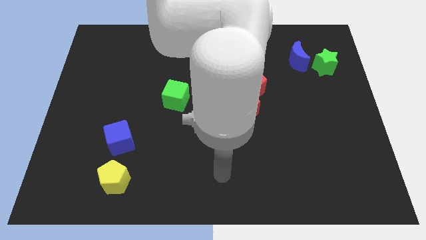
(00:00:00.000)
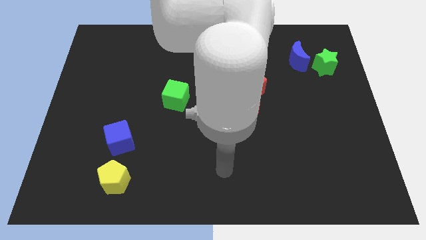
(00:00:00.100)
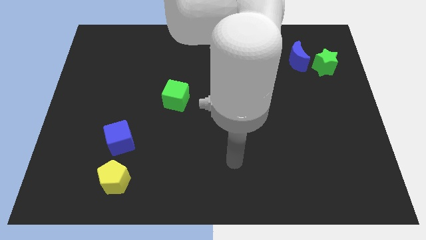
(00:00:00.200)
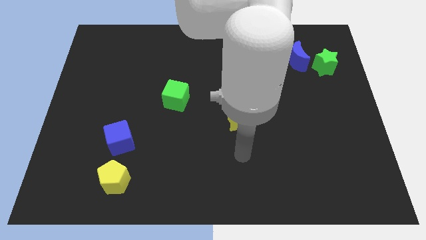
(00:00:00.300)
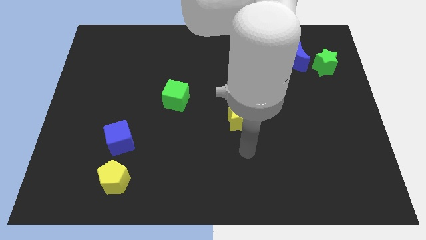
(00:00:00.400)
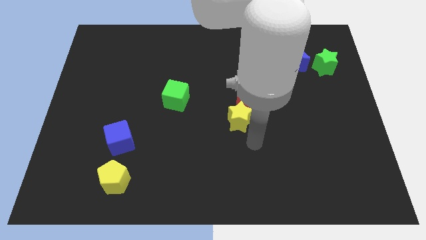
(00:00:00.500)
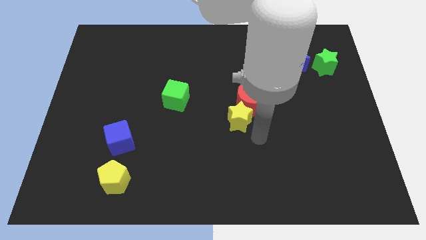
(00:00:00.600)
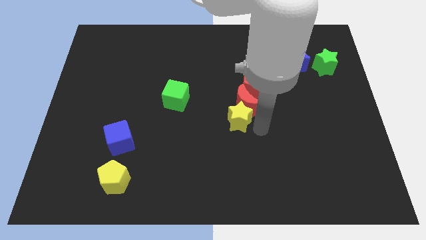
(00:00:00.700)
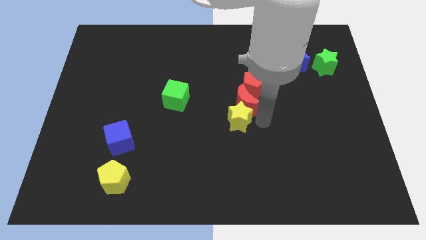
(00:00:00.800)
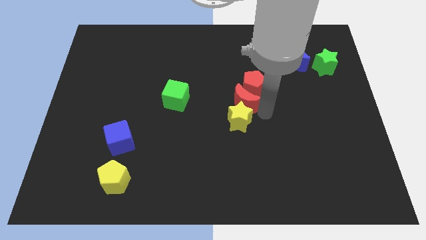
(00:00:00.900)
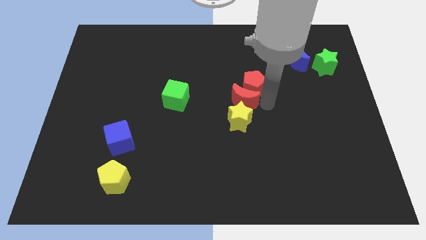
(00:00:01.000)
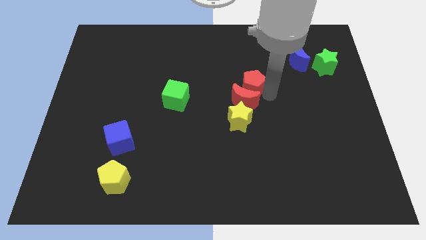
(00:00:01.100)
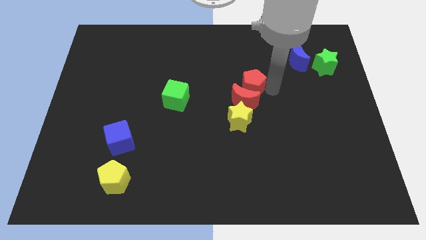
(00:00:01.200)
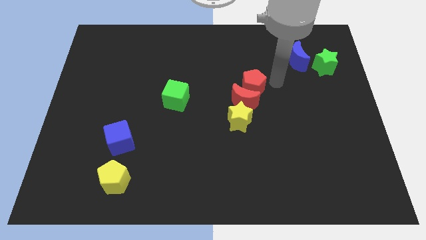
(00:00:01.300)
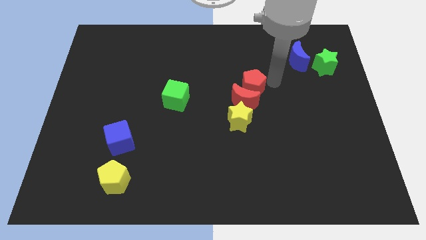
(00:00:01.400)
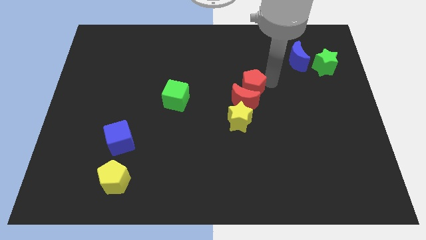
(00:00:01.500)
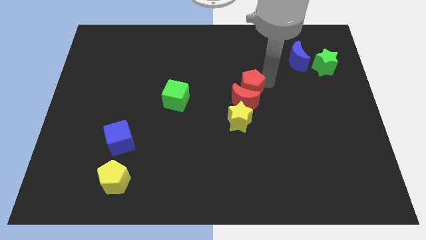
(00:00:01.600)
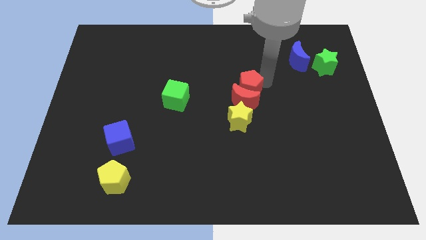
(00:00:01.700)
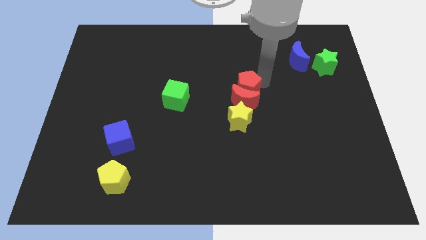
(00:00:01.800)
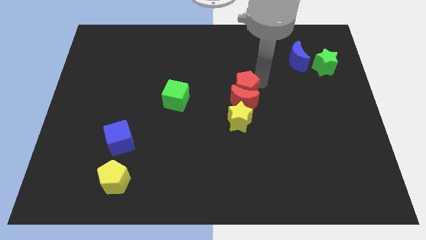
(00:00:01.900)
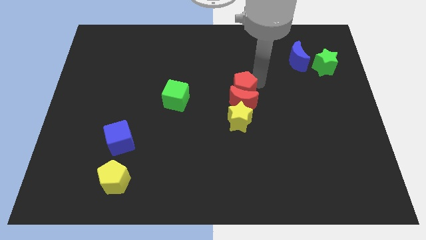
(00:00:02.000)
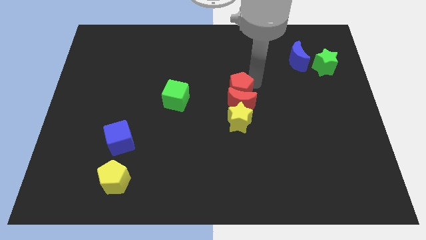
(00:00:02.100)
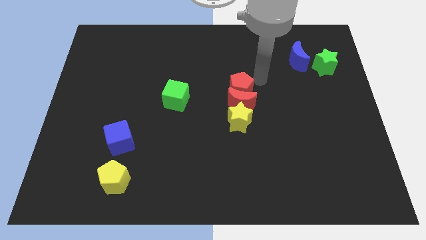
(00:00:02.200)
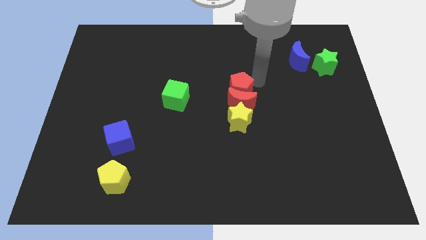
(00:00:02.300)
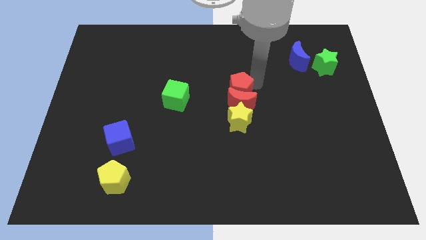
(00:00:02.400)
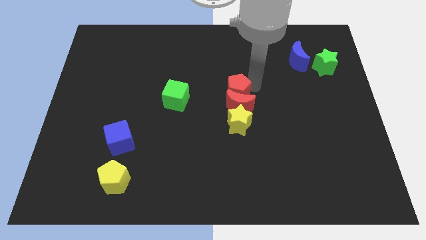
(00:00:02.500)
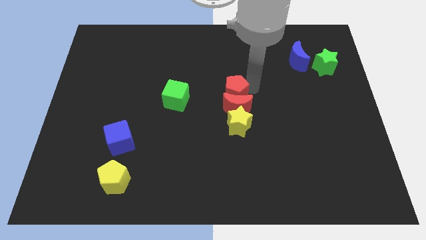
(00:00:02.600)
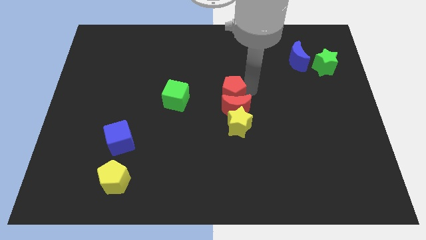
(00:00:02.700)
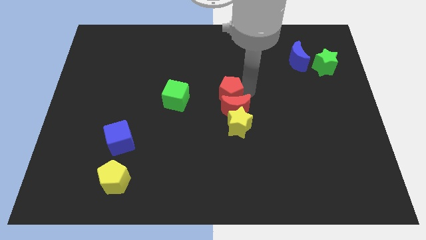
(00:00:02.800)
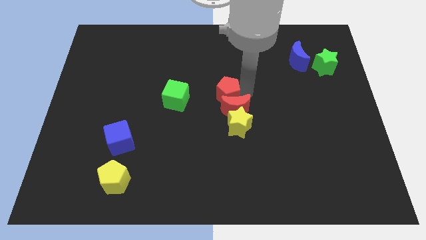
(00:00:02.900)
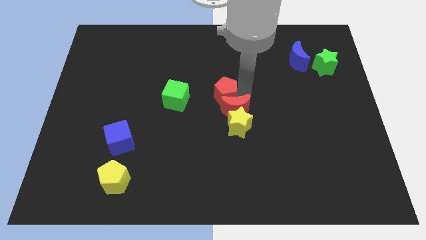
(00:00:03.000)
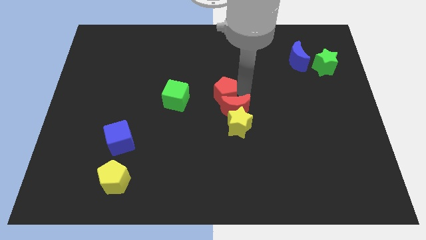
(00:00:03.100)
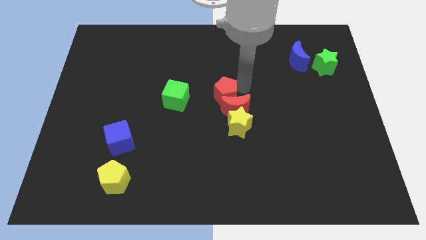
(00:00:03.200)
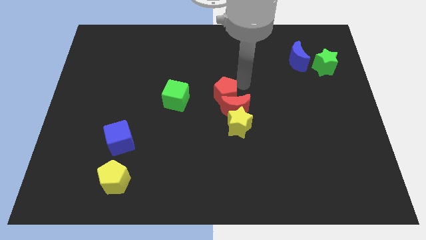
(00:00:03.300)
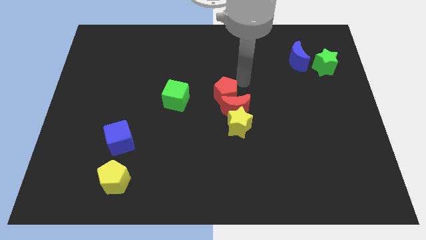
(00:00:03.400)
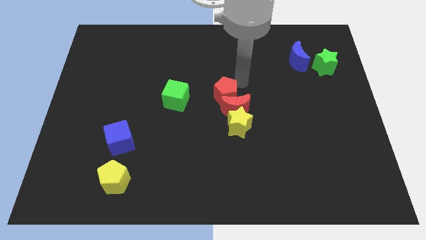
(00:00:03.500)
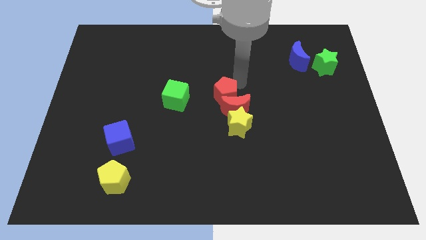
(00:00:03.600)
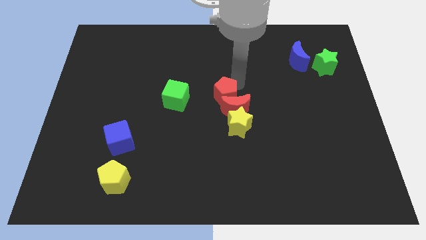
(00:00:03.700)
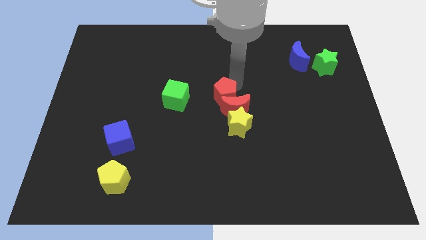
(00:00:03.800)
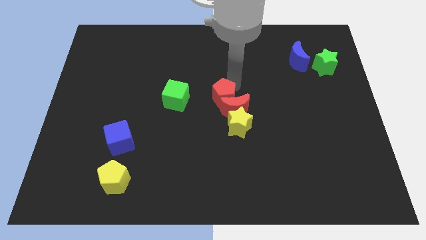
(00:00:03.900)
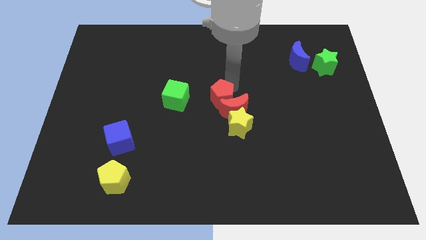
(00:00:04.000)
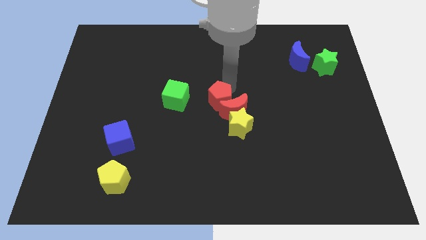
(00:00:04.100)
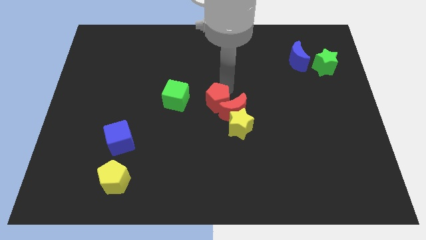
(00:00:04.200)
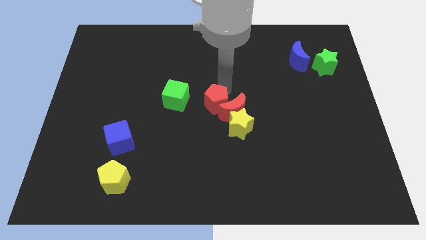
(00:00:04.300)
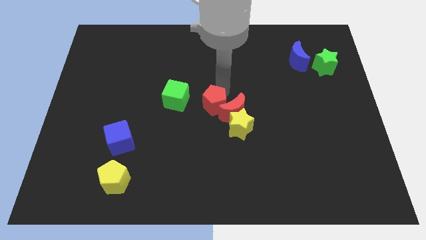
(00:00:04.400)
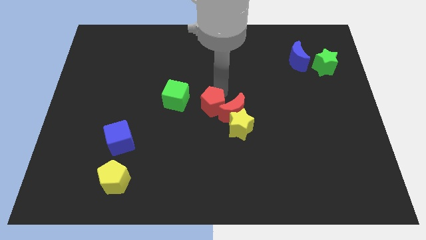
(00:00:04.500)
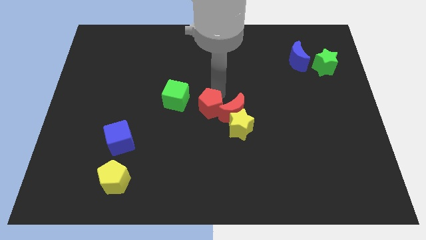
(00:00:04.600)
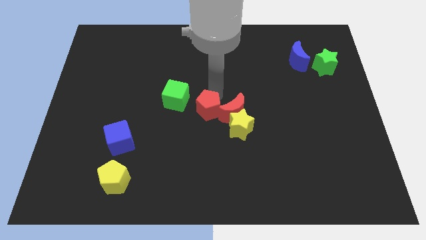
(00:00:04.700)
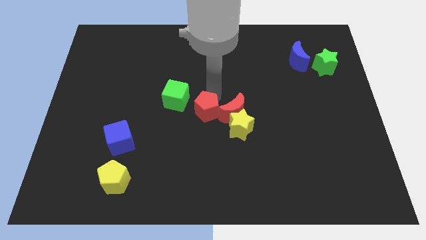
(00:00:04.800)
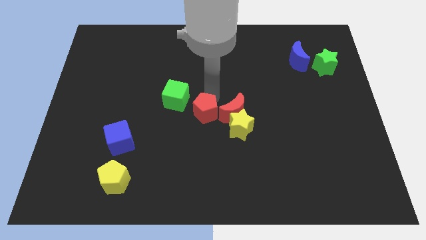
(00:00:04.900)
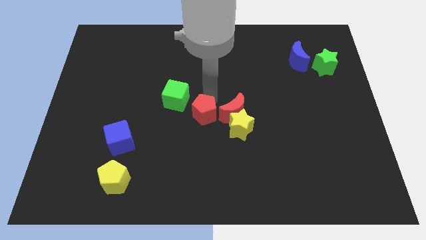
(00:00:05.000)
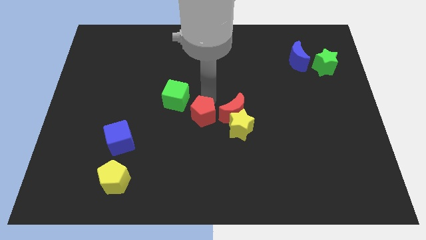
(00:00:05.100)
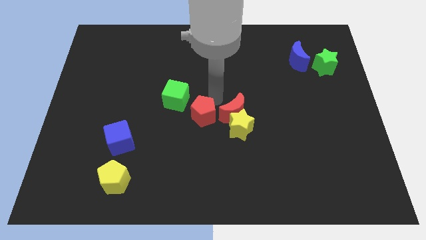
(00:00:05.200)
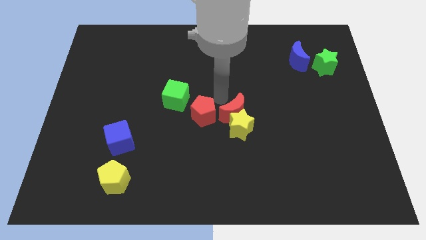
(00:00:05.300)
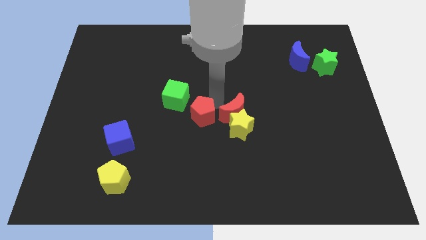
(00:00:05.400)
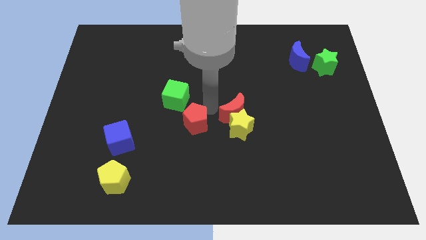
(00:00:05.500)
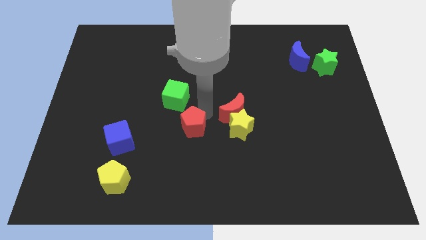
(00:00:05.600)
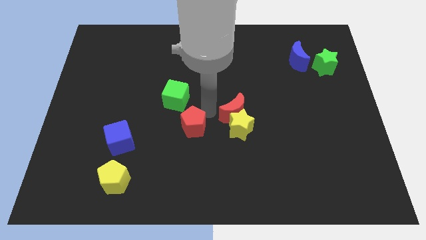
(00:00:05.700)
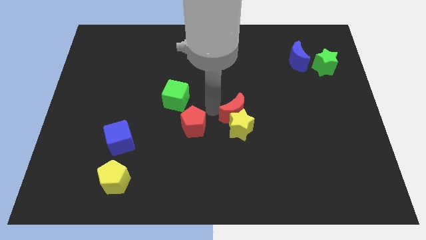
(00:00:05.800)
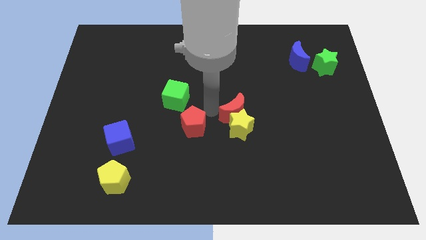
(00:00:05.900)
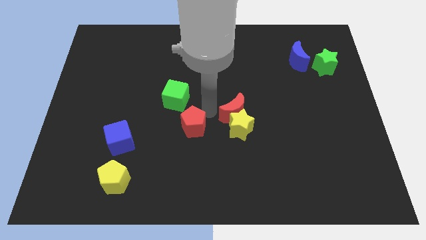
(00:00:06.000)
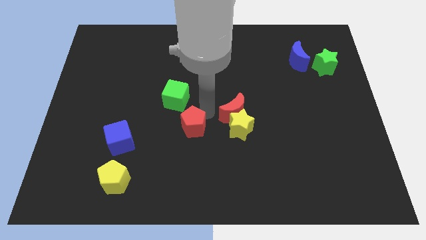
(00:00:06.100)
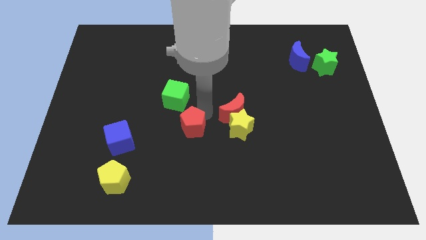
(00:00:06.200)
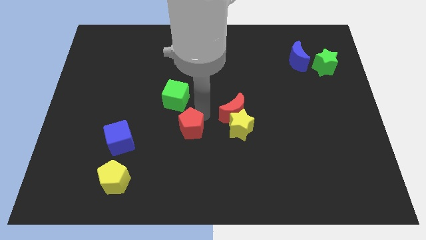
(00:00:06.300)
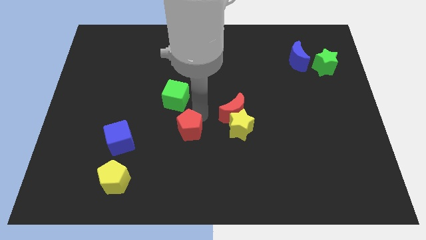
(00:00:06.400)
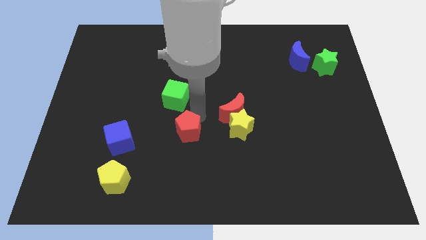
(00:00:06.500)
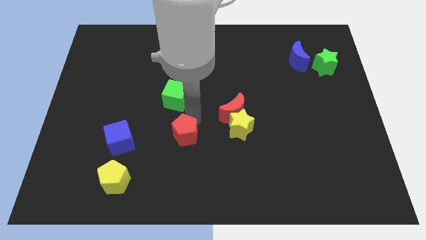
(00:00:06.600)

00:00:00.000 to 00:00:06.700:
slide the red pentagon down and to the left diagonally

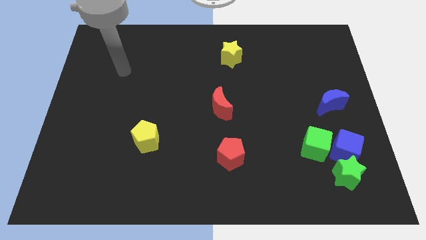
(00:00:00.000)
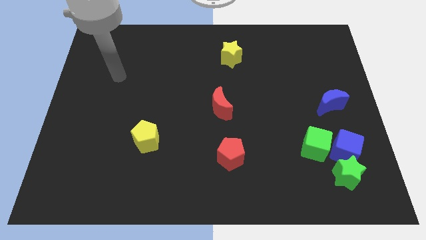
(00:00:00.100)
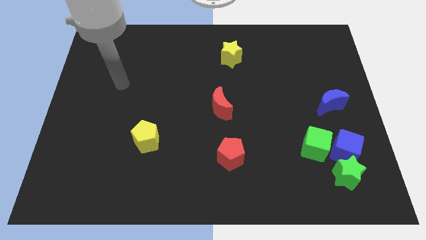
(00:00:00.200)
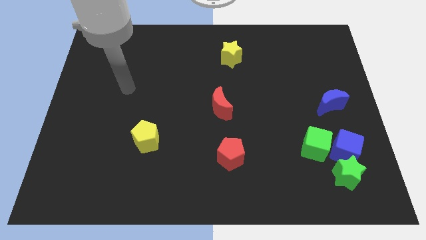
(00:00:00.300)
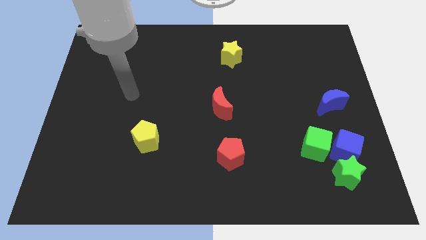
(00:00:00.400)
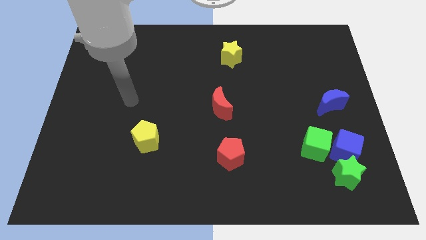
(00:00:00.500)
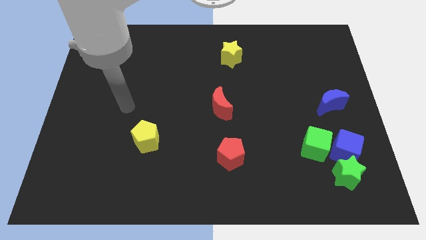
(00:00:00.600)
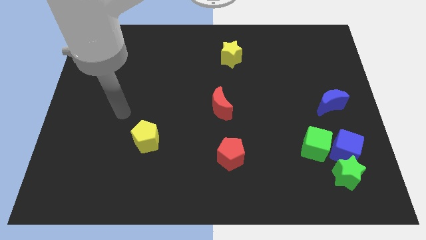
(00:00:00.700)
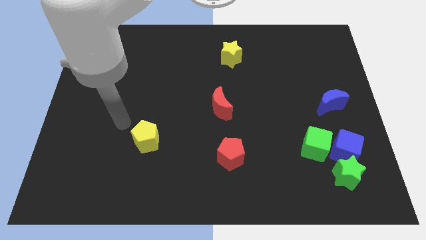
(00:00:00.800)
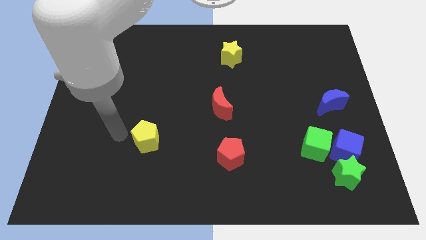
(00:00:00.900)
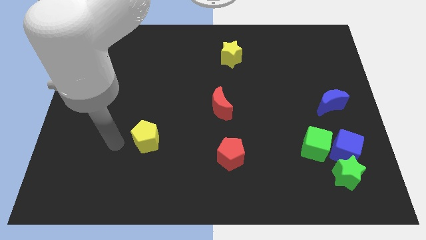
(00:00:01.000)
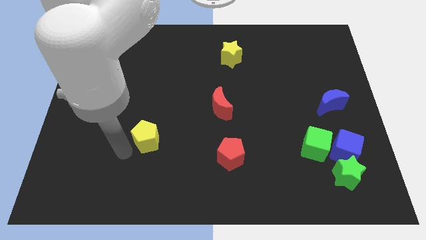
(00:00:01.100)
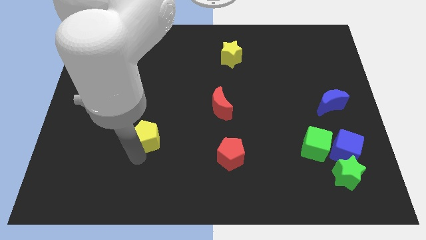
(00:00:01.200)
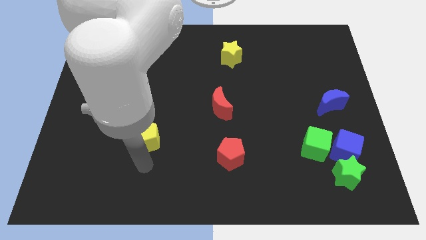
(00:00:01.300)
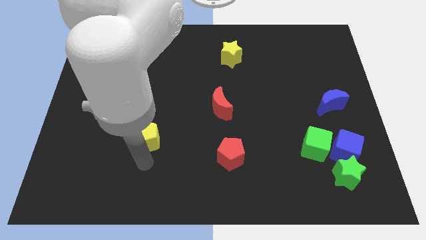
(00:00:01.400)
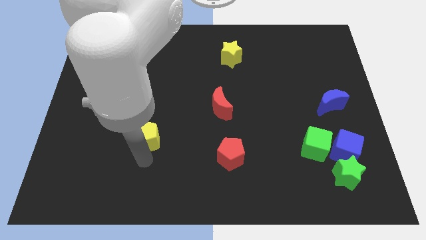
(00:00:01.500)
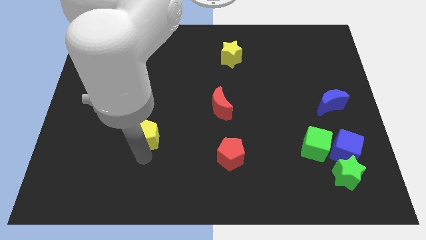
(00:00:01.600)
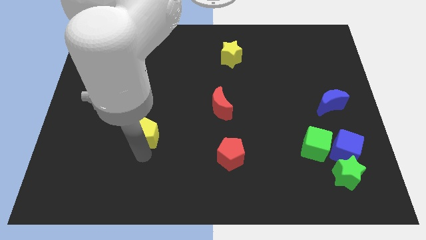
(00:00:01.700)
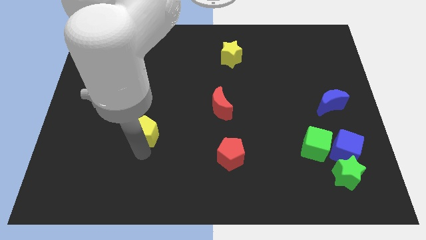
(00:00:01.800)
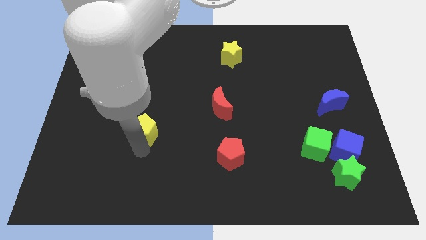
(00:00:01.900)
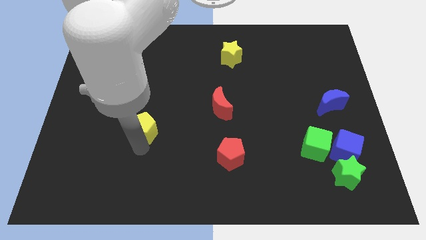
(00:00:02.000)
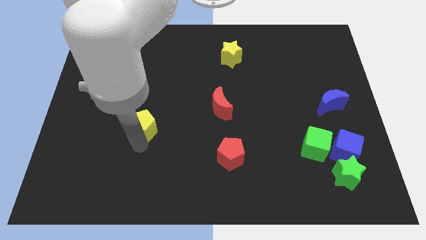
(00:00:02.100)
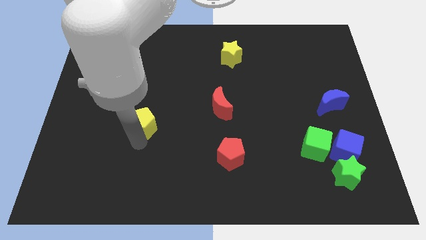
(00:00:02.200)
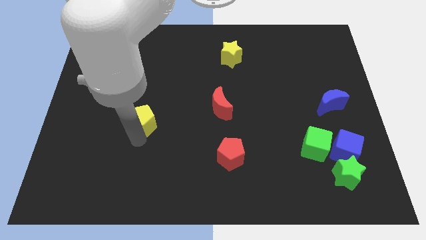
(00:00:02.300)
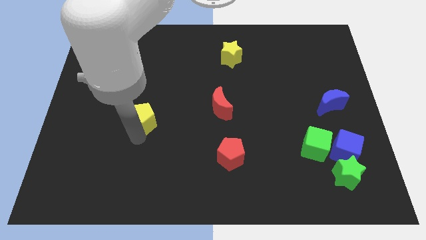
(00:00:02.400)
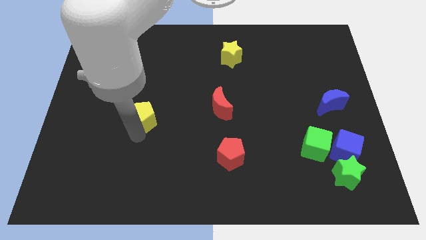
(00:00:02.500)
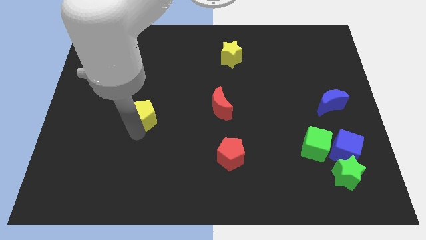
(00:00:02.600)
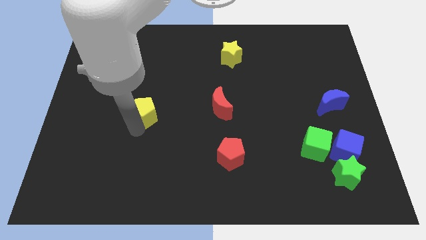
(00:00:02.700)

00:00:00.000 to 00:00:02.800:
push the yellow pentagon upwards a bit
